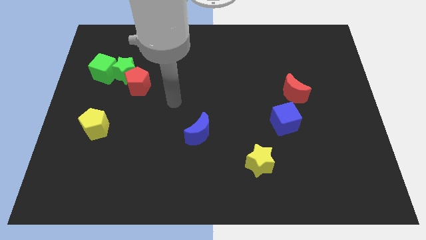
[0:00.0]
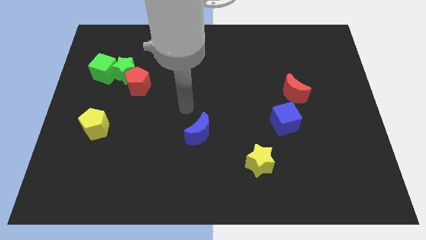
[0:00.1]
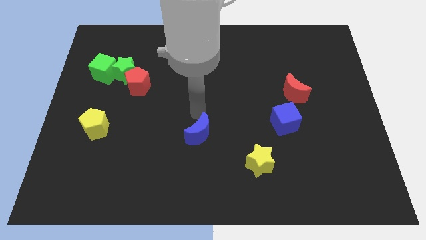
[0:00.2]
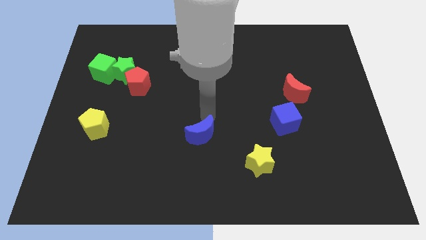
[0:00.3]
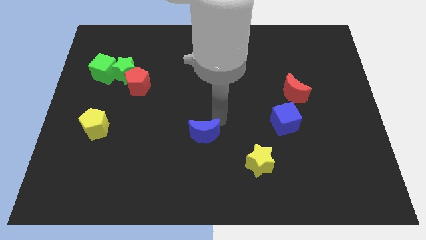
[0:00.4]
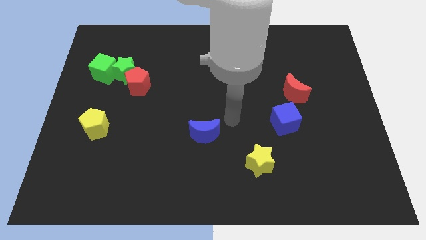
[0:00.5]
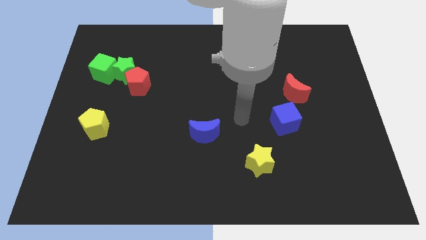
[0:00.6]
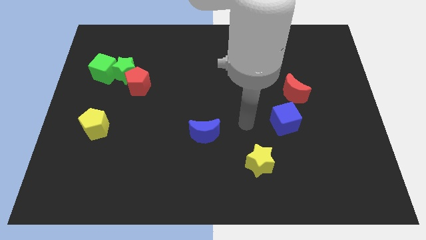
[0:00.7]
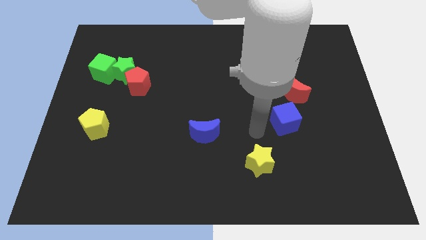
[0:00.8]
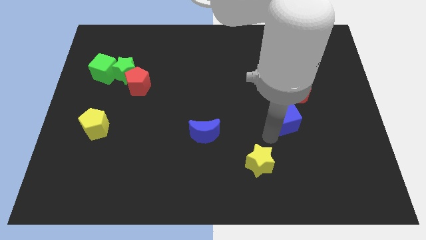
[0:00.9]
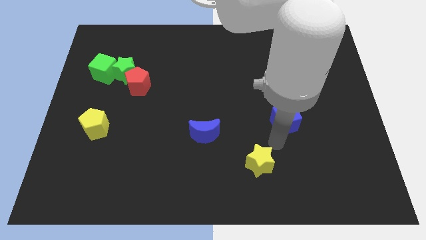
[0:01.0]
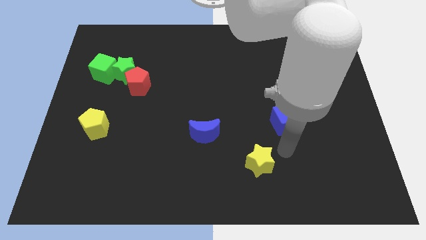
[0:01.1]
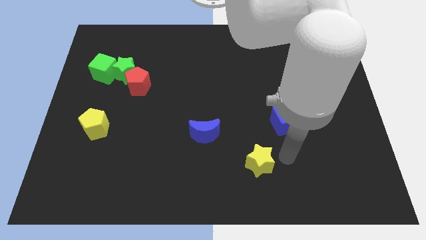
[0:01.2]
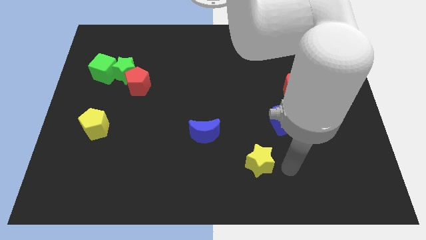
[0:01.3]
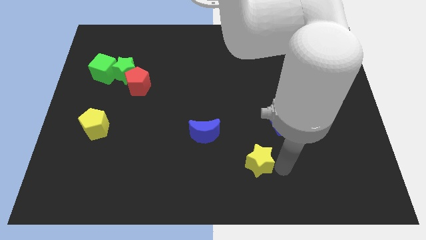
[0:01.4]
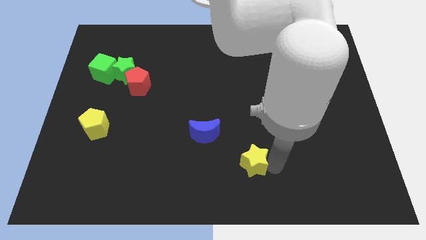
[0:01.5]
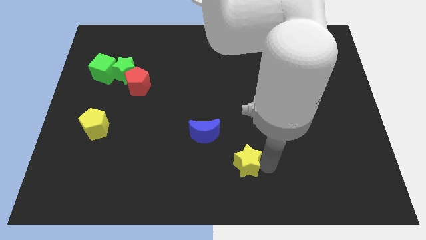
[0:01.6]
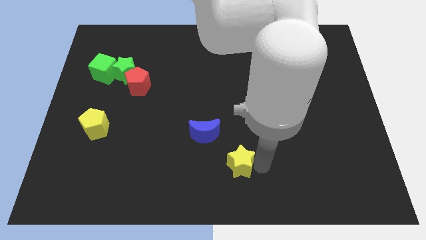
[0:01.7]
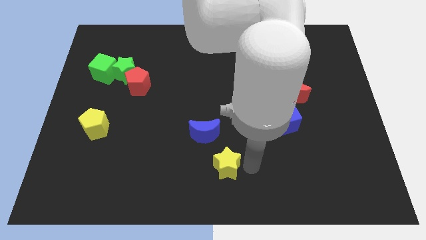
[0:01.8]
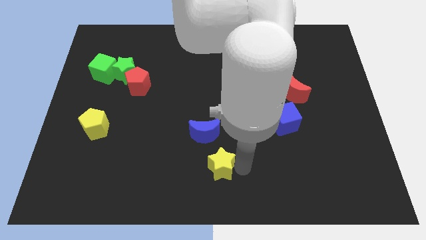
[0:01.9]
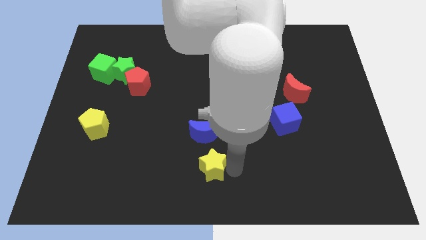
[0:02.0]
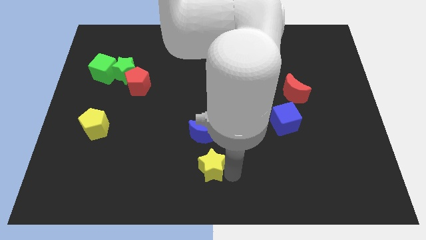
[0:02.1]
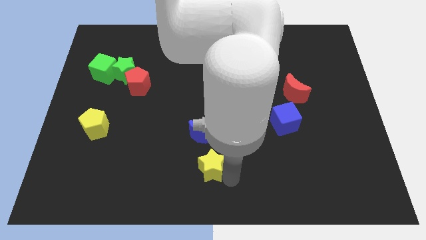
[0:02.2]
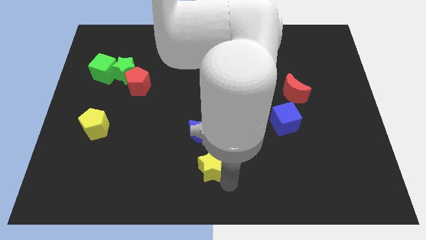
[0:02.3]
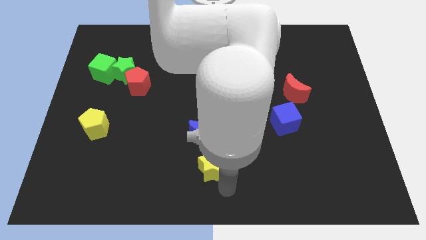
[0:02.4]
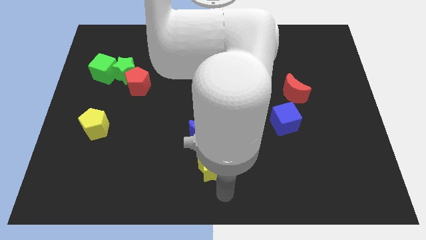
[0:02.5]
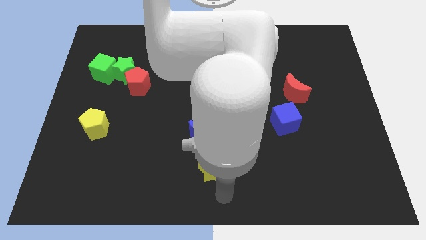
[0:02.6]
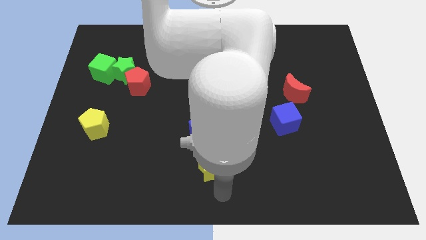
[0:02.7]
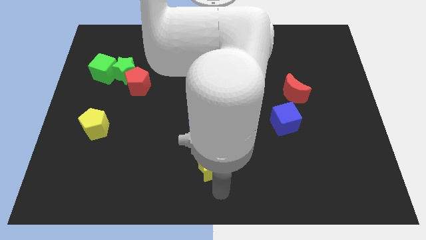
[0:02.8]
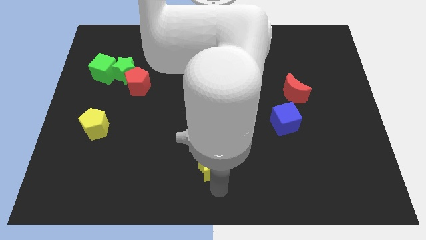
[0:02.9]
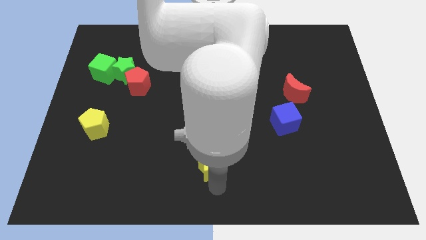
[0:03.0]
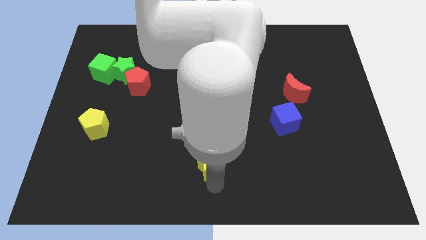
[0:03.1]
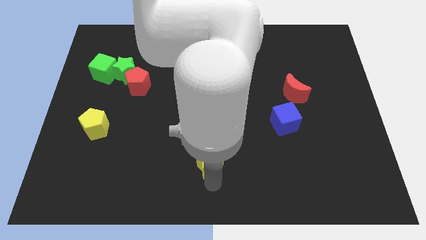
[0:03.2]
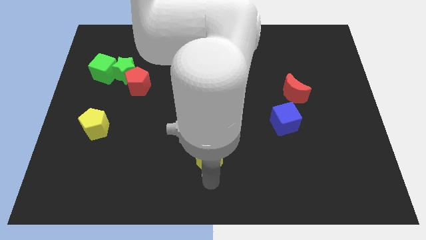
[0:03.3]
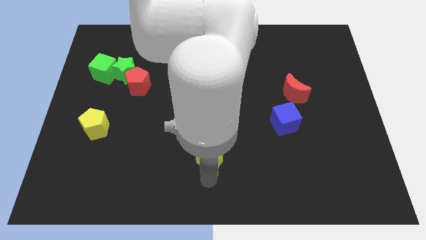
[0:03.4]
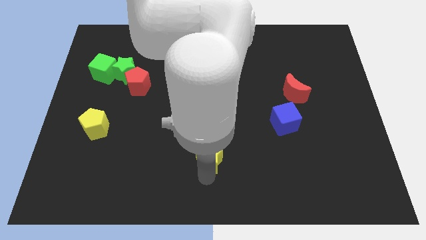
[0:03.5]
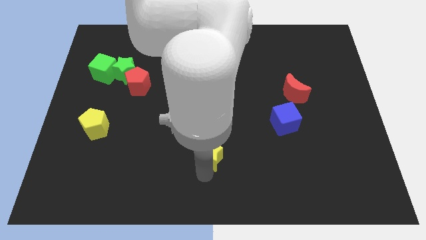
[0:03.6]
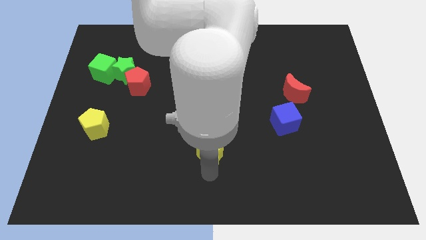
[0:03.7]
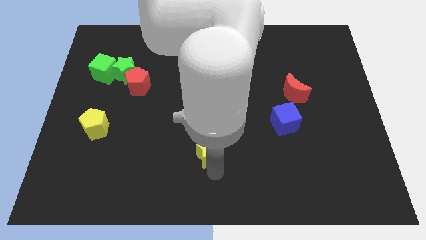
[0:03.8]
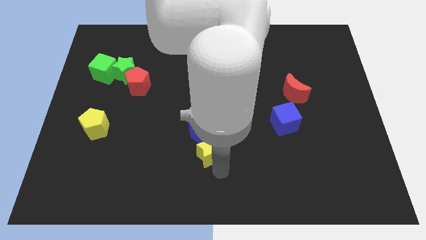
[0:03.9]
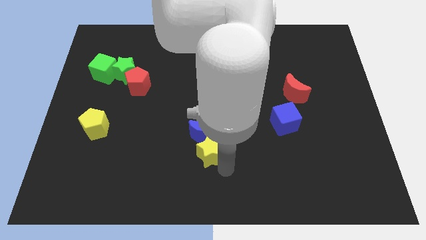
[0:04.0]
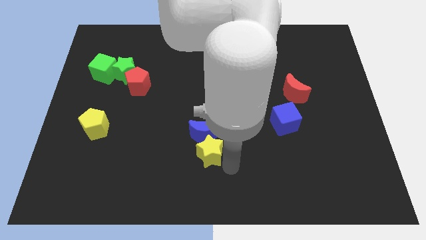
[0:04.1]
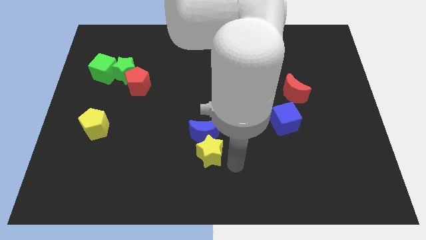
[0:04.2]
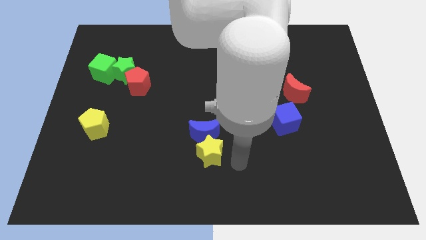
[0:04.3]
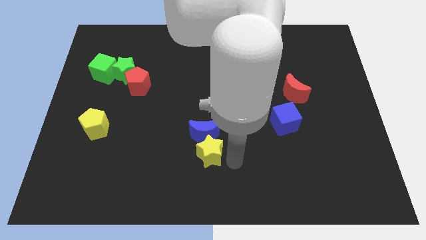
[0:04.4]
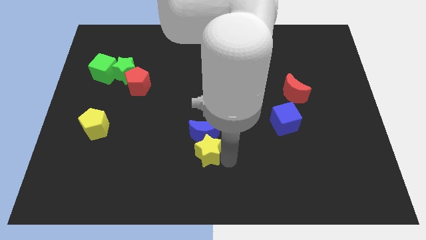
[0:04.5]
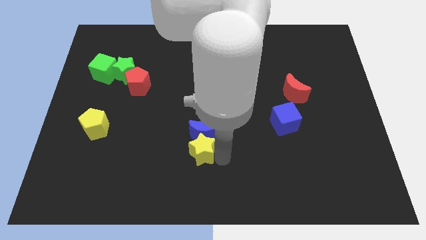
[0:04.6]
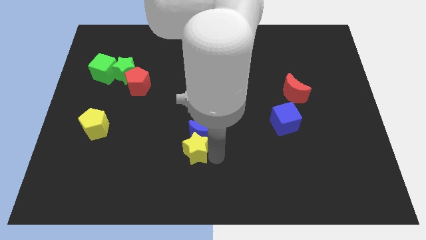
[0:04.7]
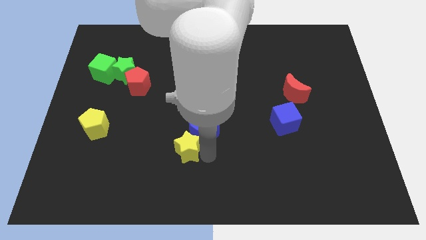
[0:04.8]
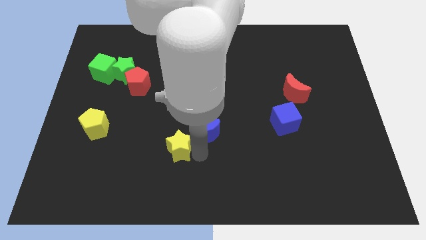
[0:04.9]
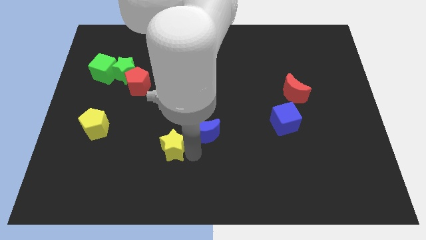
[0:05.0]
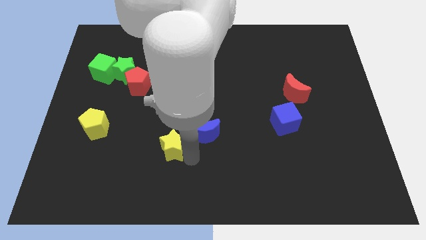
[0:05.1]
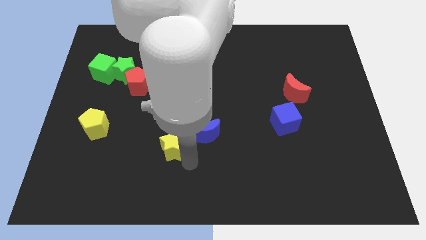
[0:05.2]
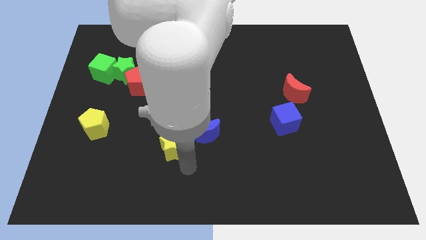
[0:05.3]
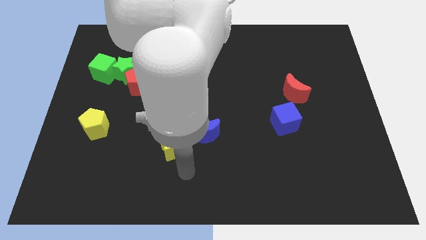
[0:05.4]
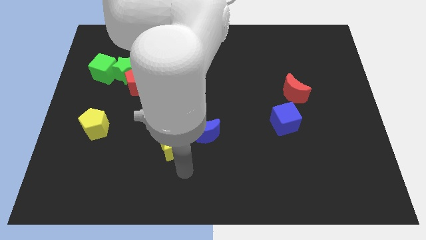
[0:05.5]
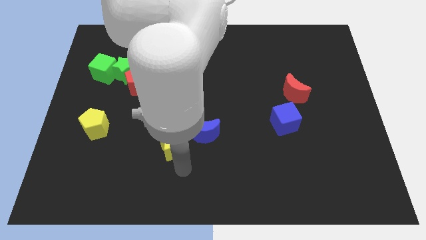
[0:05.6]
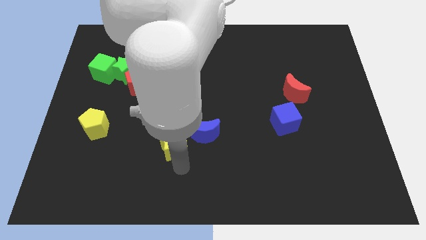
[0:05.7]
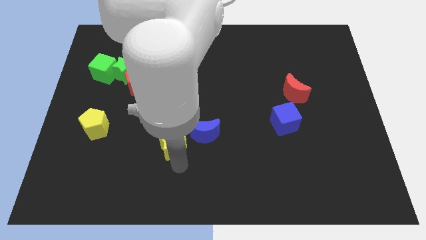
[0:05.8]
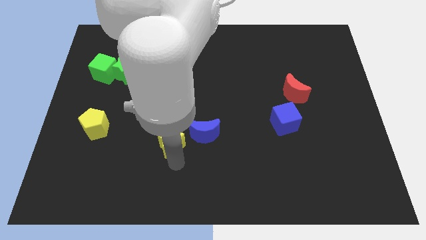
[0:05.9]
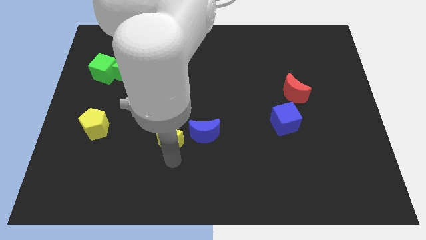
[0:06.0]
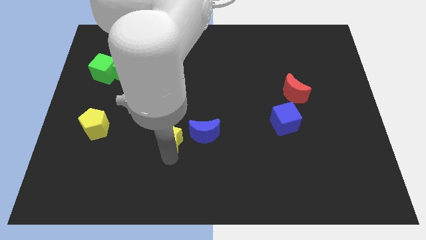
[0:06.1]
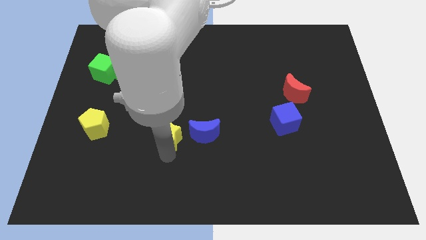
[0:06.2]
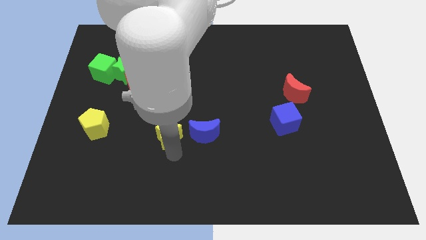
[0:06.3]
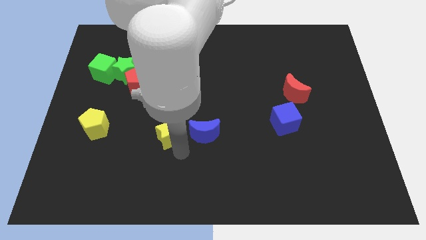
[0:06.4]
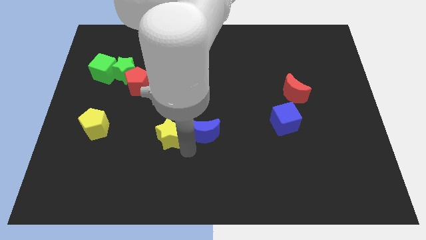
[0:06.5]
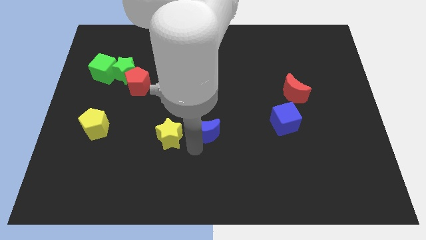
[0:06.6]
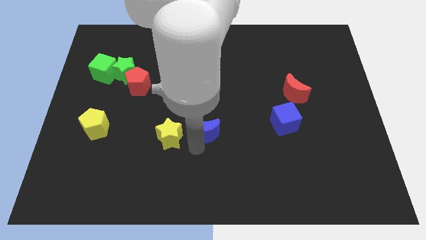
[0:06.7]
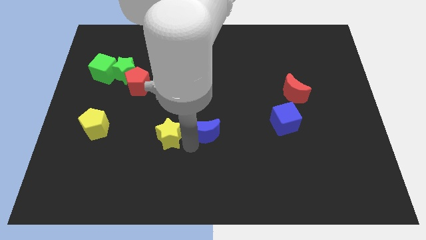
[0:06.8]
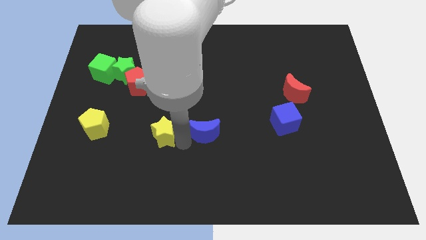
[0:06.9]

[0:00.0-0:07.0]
push the yellow star to the right side of the yellow pentagon
